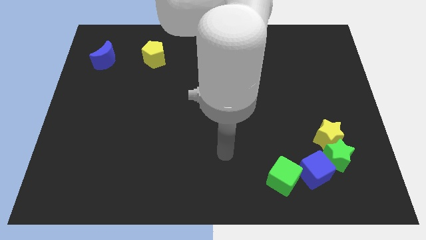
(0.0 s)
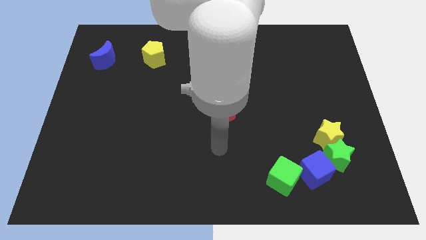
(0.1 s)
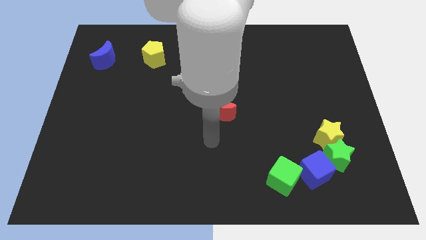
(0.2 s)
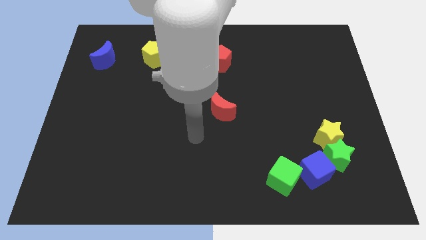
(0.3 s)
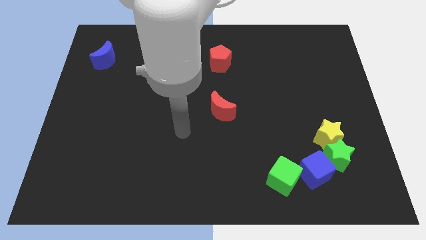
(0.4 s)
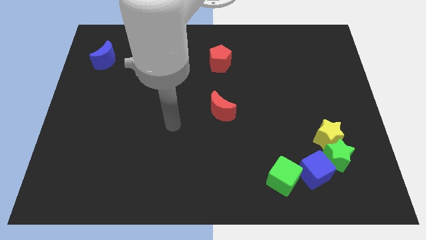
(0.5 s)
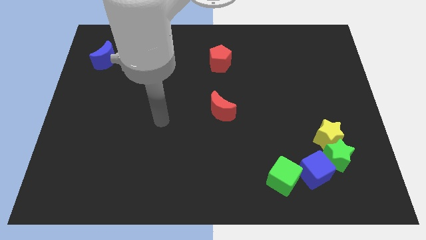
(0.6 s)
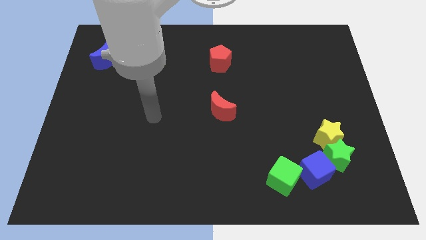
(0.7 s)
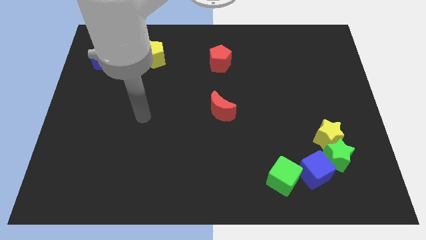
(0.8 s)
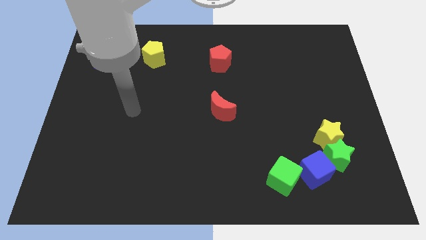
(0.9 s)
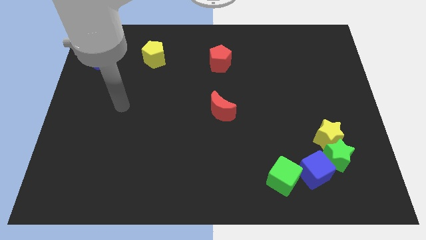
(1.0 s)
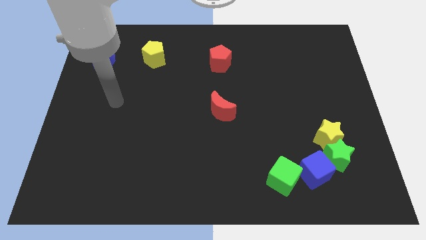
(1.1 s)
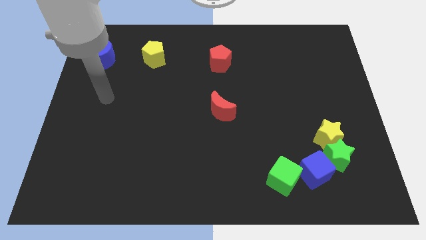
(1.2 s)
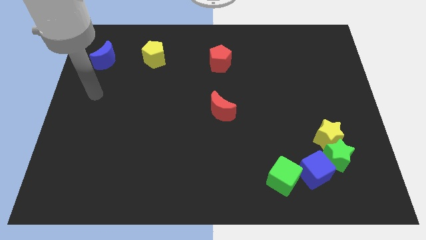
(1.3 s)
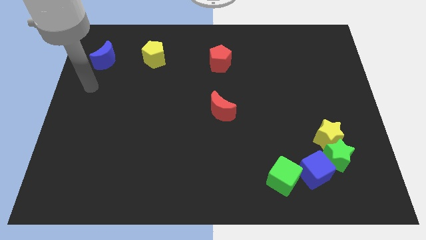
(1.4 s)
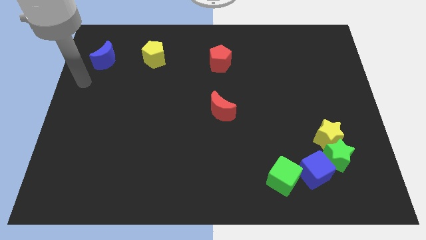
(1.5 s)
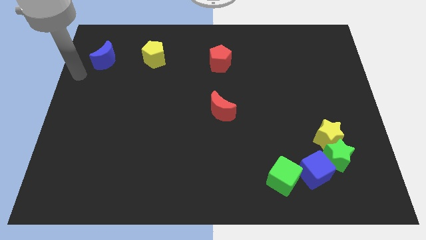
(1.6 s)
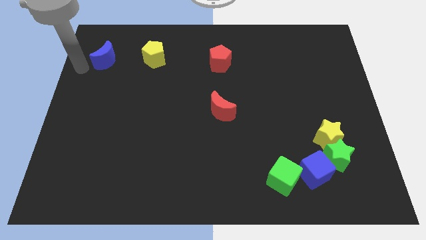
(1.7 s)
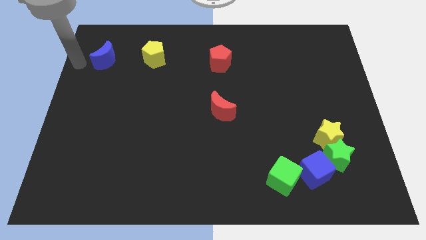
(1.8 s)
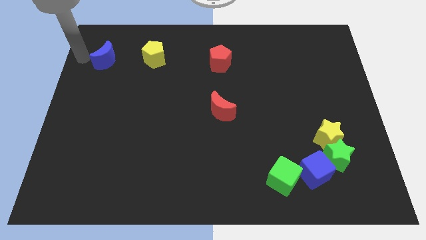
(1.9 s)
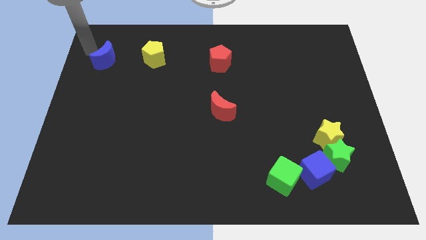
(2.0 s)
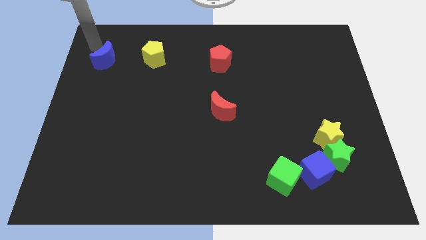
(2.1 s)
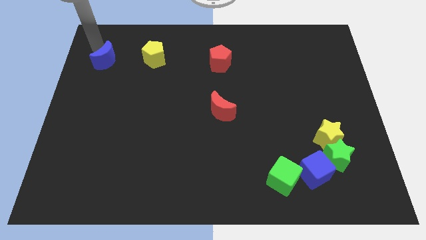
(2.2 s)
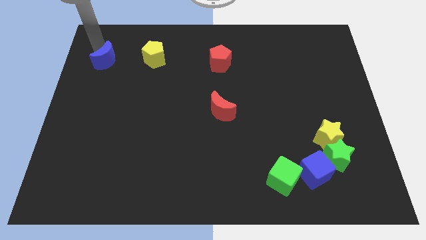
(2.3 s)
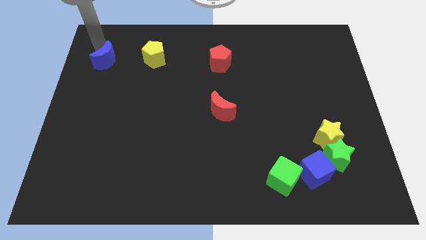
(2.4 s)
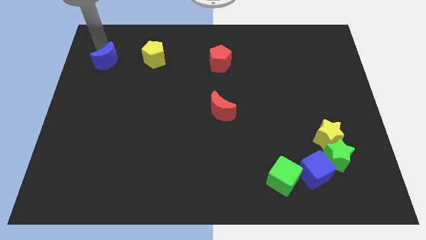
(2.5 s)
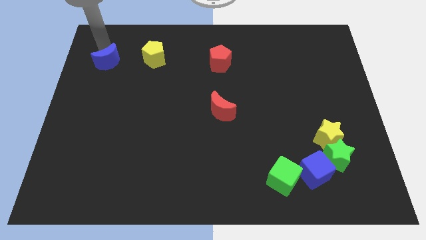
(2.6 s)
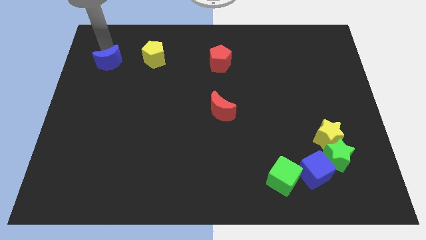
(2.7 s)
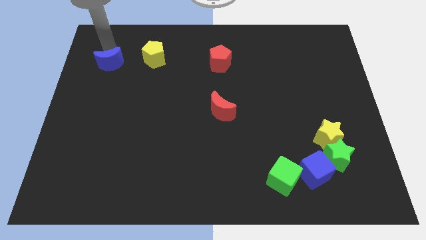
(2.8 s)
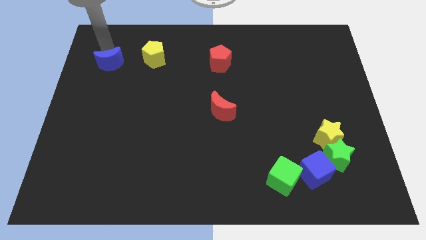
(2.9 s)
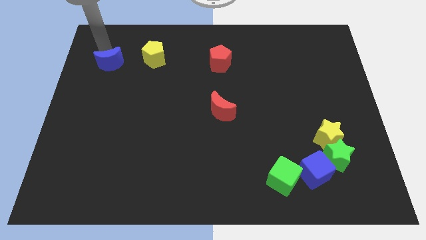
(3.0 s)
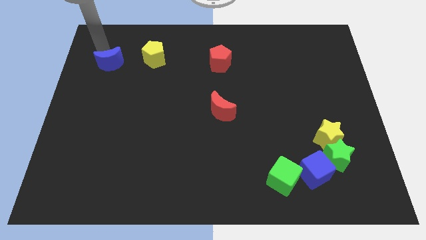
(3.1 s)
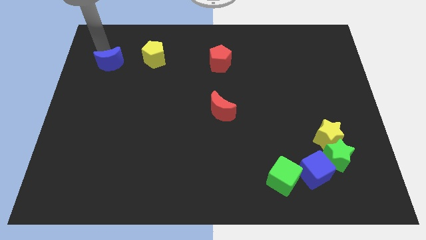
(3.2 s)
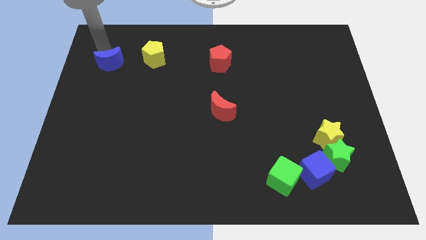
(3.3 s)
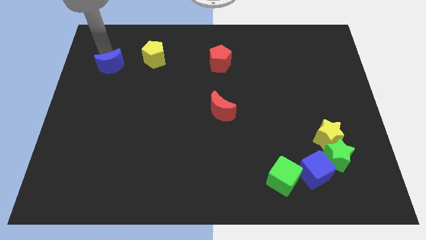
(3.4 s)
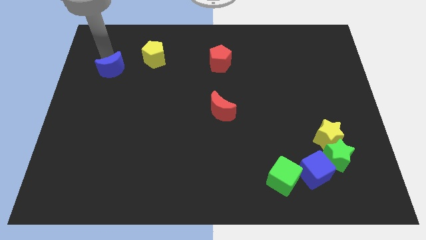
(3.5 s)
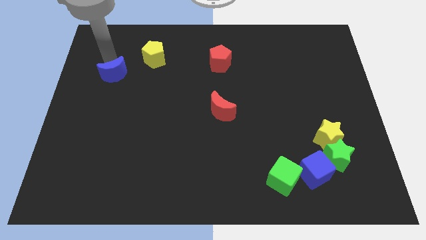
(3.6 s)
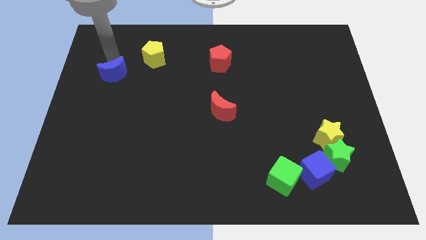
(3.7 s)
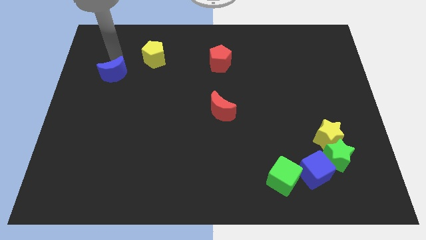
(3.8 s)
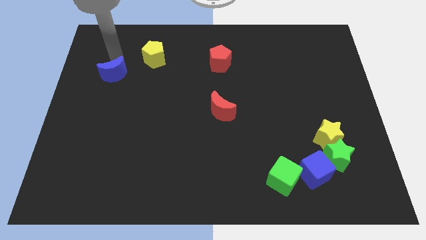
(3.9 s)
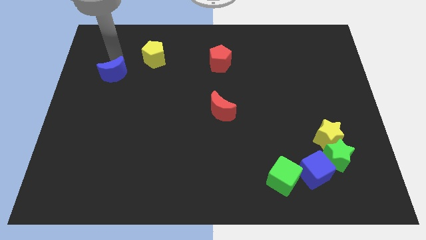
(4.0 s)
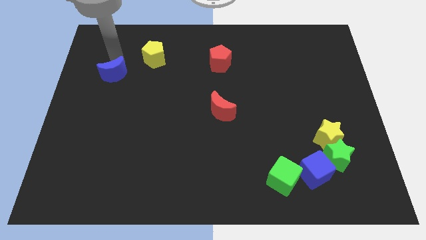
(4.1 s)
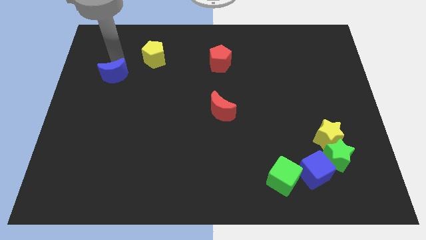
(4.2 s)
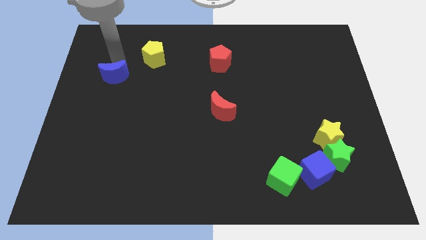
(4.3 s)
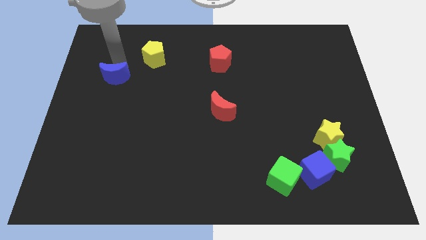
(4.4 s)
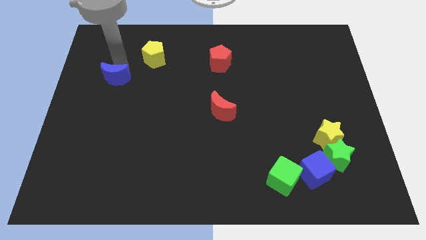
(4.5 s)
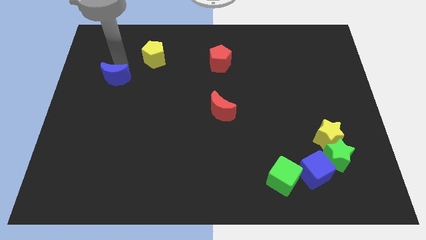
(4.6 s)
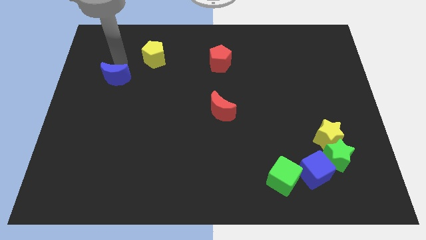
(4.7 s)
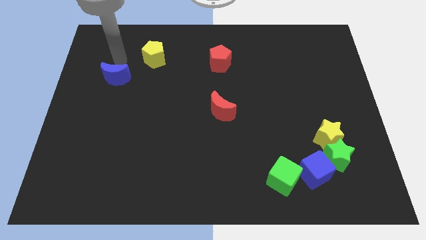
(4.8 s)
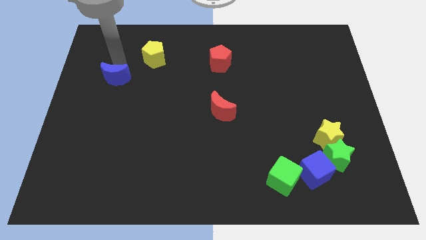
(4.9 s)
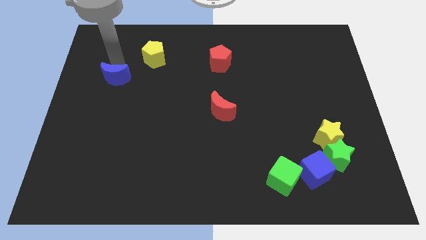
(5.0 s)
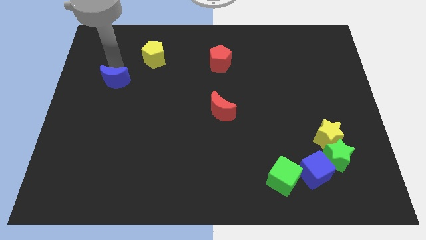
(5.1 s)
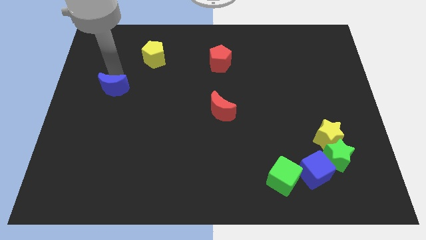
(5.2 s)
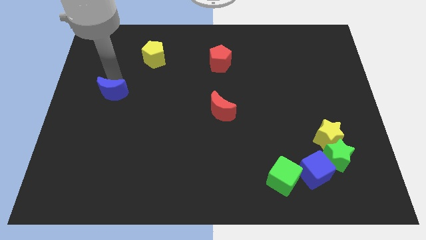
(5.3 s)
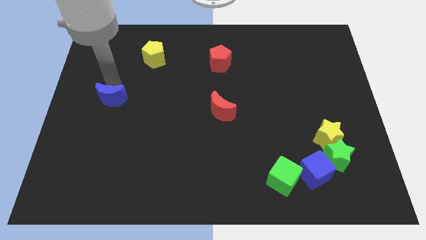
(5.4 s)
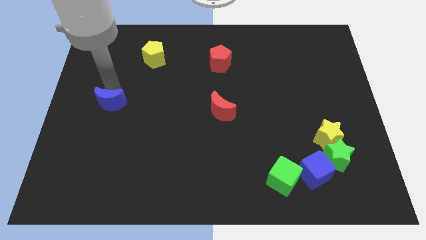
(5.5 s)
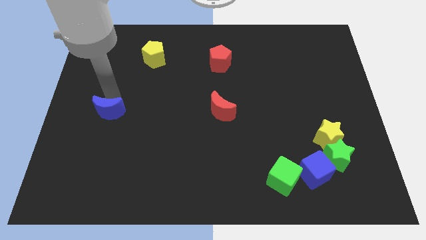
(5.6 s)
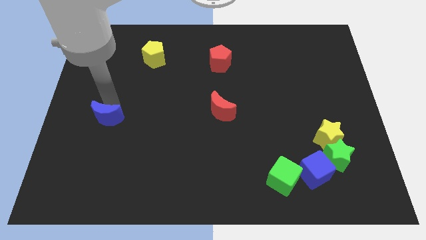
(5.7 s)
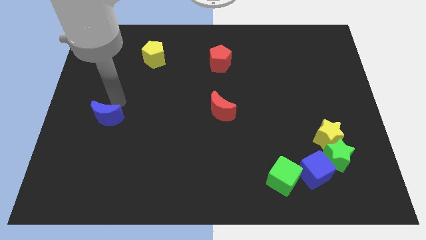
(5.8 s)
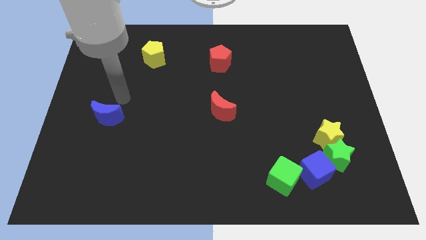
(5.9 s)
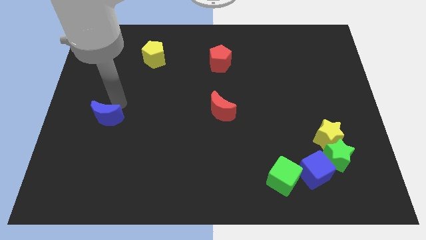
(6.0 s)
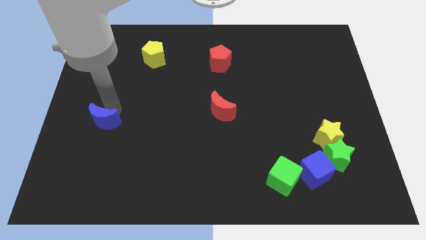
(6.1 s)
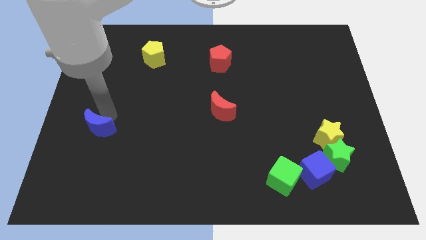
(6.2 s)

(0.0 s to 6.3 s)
slide the blue moon down

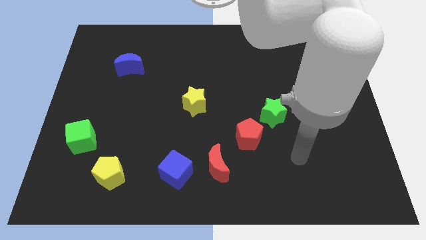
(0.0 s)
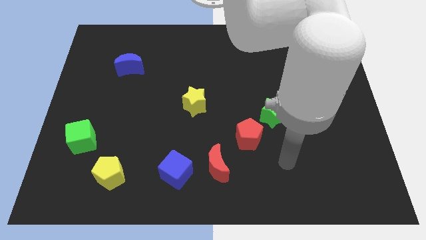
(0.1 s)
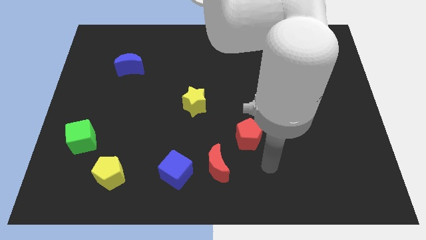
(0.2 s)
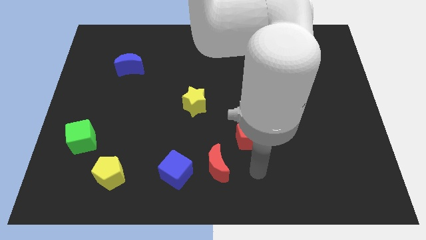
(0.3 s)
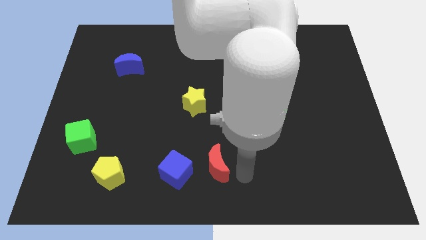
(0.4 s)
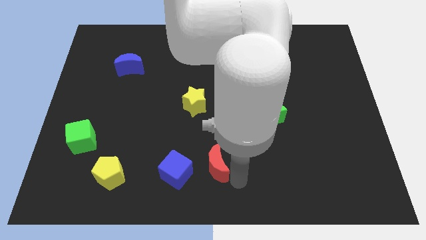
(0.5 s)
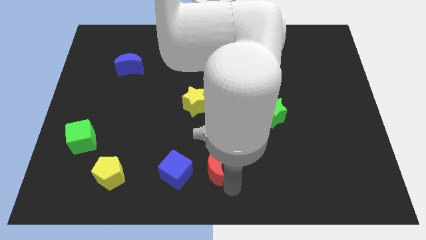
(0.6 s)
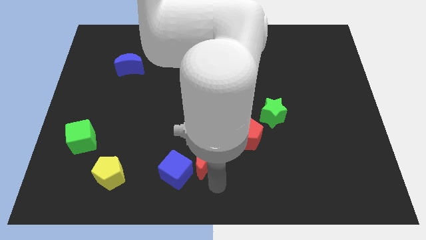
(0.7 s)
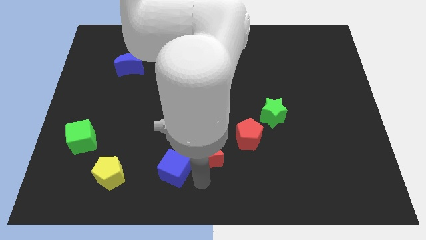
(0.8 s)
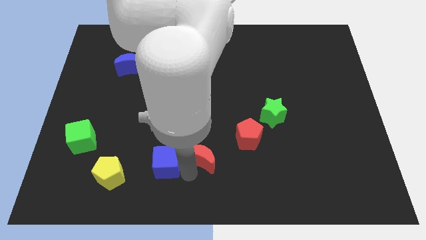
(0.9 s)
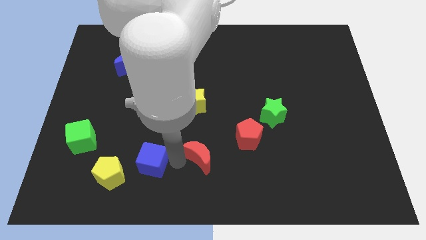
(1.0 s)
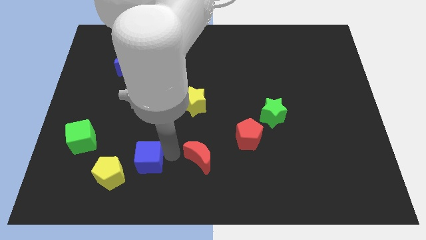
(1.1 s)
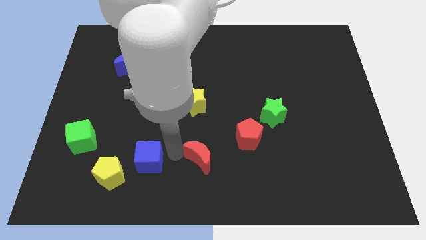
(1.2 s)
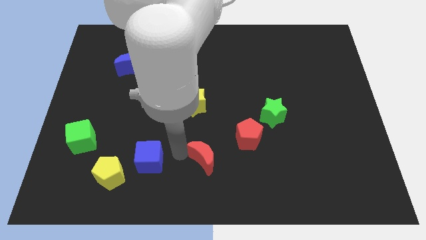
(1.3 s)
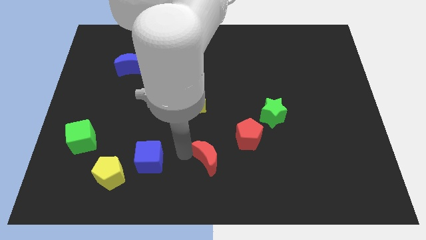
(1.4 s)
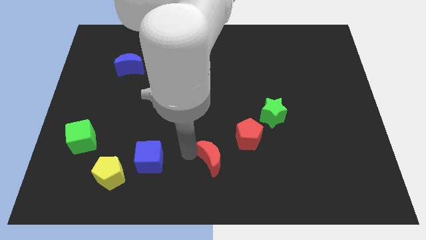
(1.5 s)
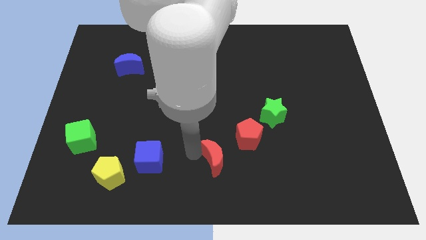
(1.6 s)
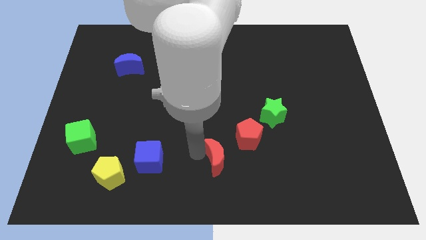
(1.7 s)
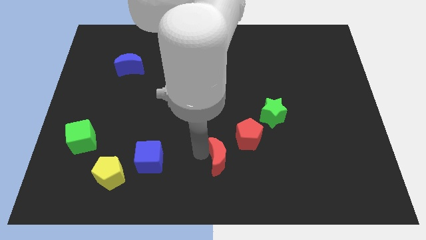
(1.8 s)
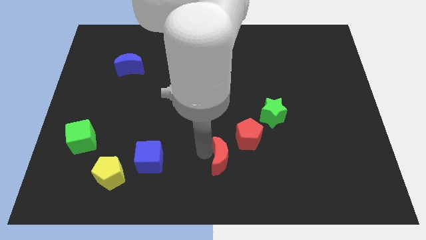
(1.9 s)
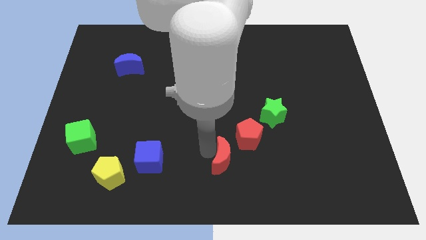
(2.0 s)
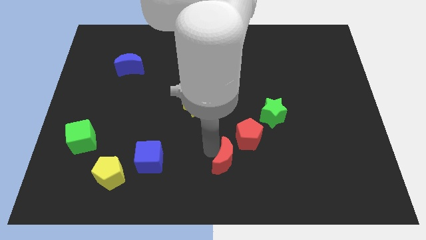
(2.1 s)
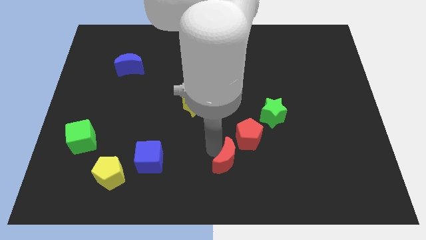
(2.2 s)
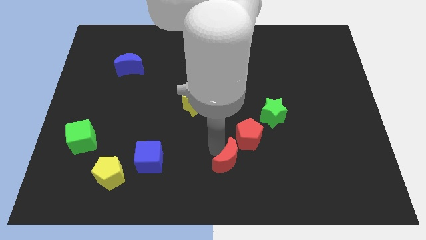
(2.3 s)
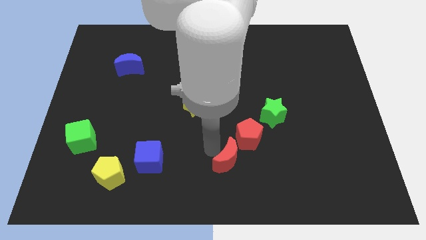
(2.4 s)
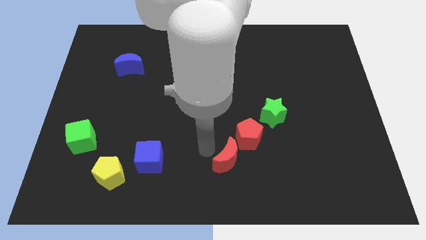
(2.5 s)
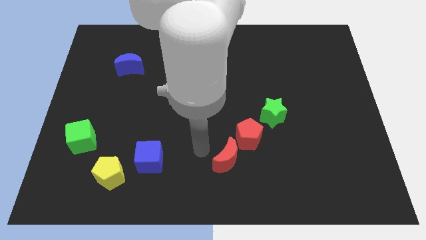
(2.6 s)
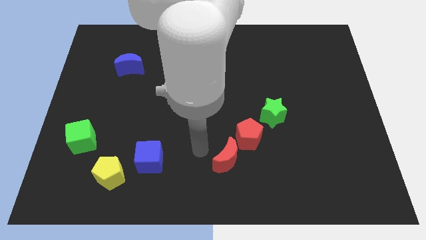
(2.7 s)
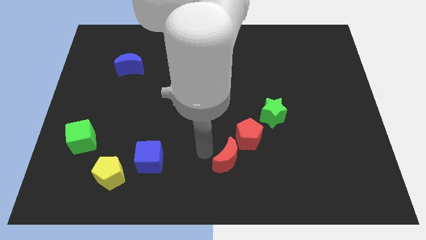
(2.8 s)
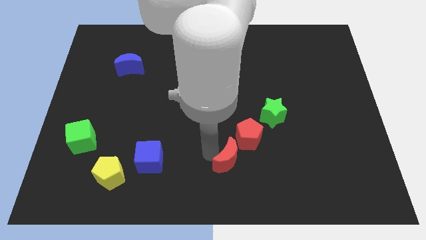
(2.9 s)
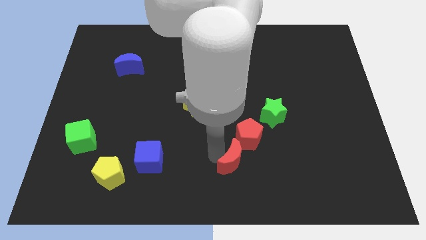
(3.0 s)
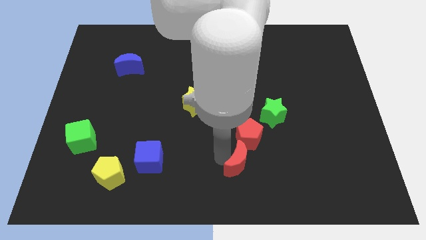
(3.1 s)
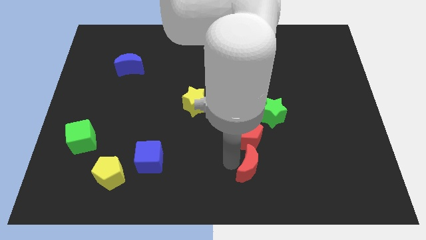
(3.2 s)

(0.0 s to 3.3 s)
move the red moon a little to the right
